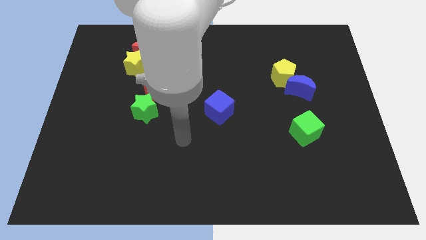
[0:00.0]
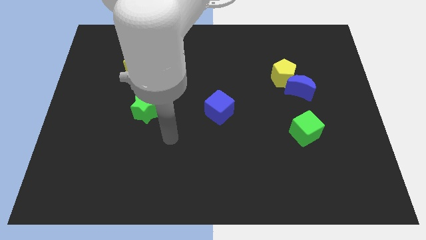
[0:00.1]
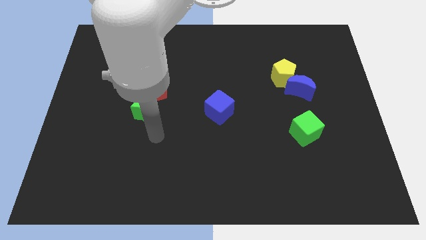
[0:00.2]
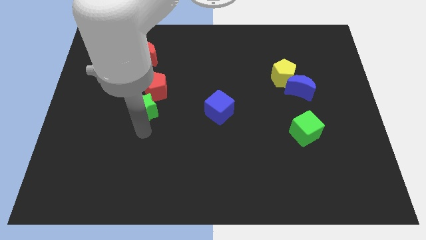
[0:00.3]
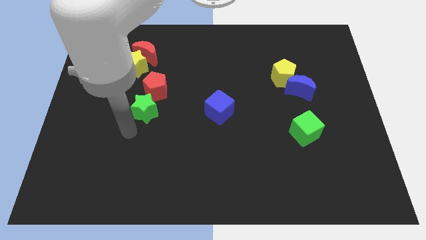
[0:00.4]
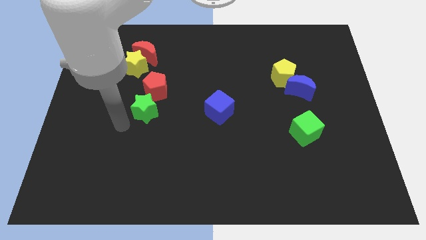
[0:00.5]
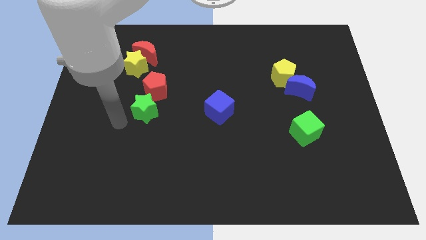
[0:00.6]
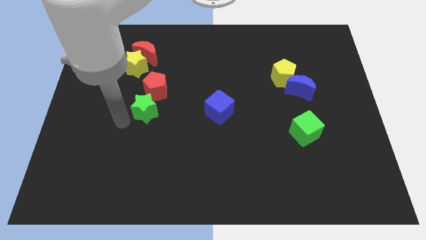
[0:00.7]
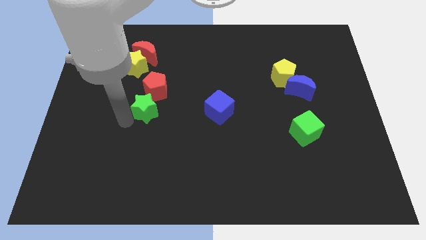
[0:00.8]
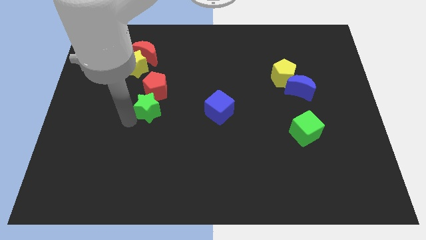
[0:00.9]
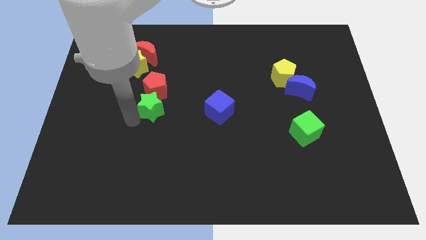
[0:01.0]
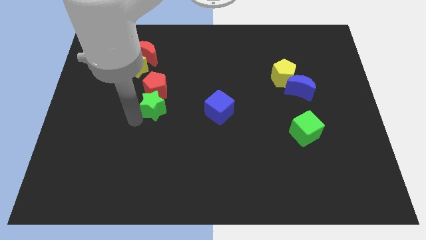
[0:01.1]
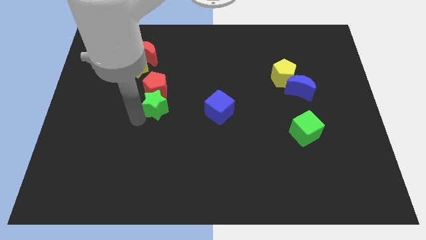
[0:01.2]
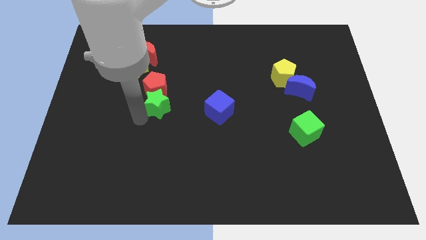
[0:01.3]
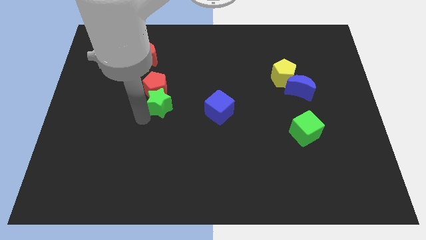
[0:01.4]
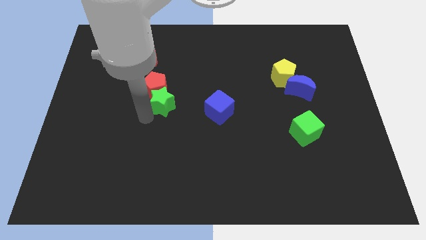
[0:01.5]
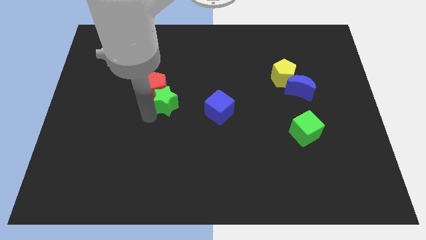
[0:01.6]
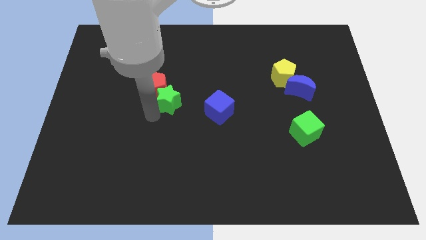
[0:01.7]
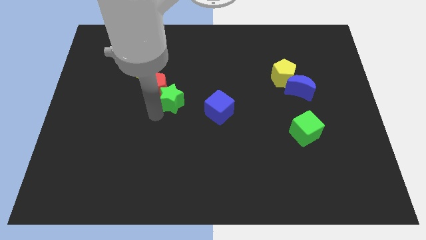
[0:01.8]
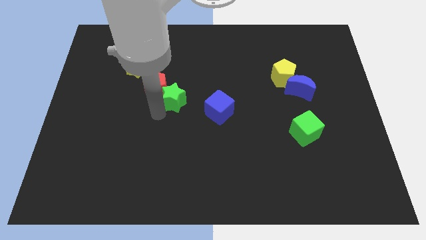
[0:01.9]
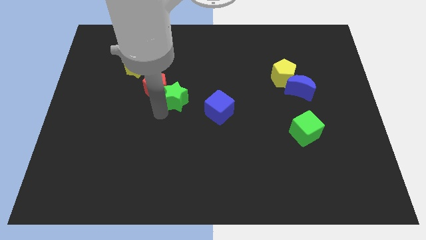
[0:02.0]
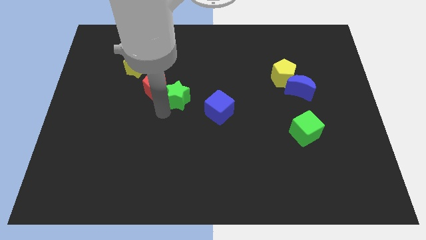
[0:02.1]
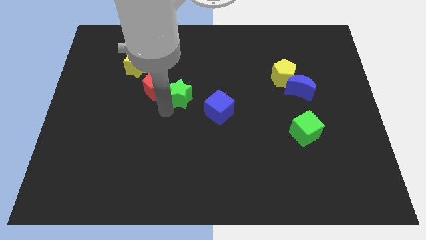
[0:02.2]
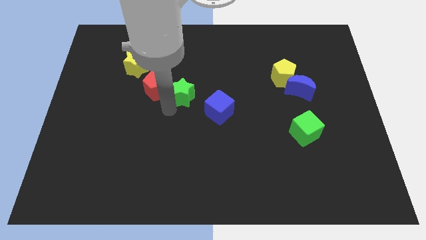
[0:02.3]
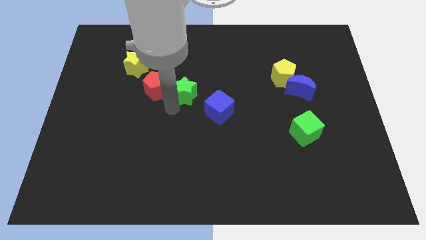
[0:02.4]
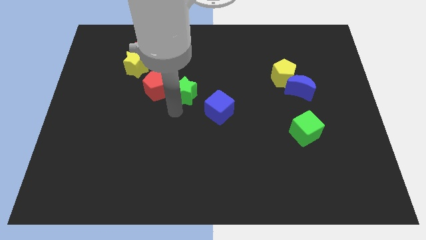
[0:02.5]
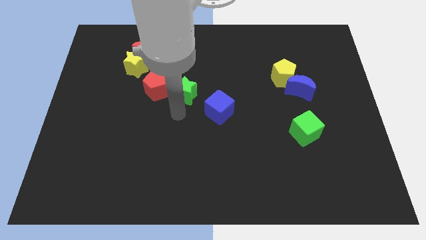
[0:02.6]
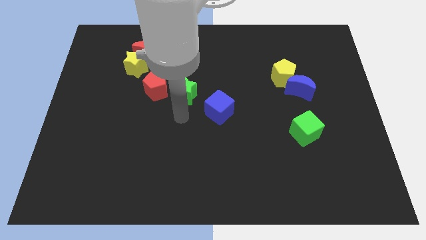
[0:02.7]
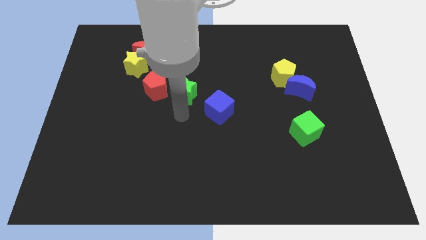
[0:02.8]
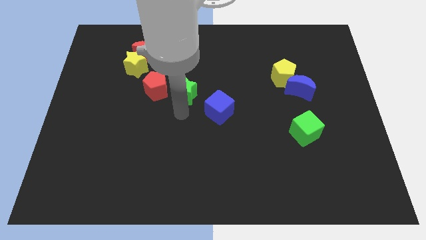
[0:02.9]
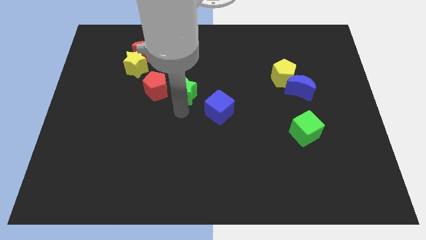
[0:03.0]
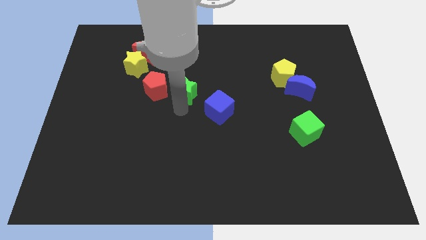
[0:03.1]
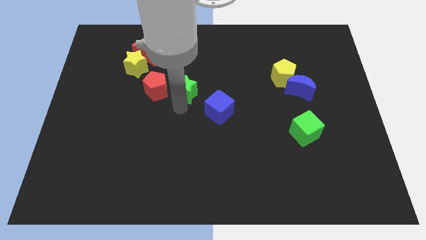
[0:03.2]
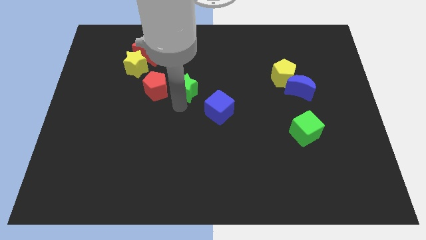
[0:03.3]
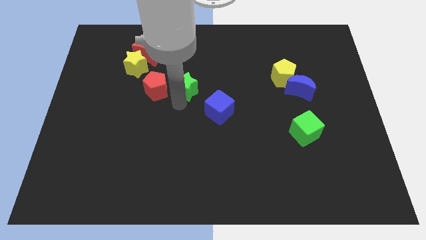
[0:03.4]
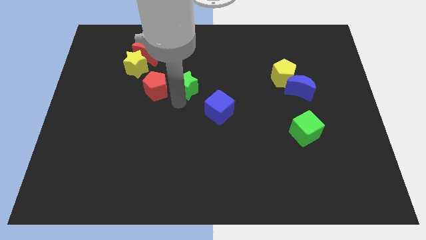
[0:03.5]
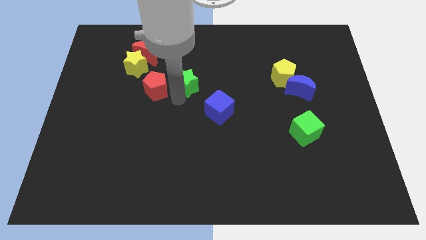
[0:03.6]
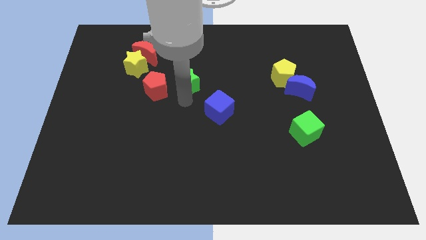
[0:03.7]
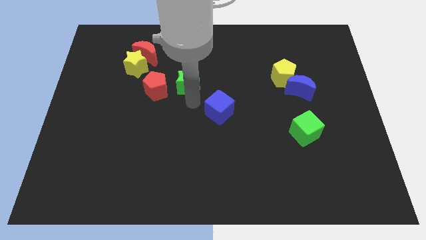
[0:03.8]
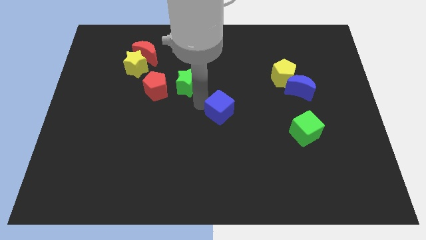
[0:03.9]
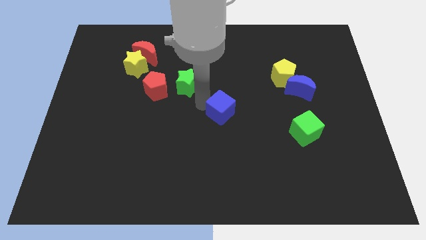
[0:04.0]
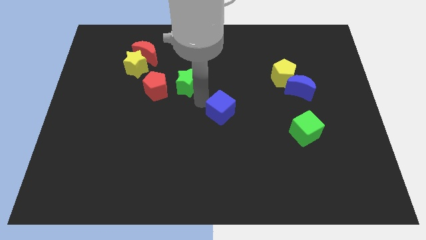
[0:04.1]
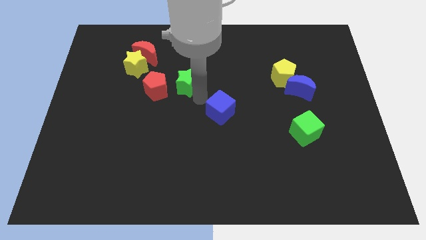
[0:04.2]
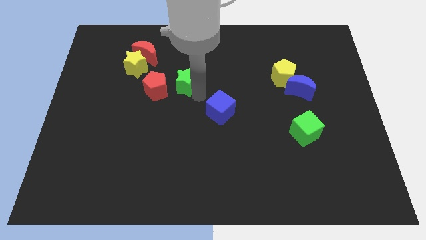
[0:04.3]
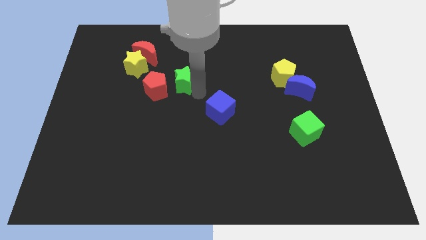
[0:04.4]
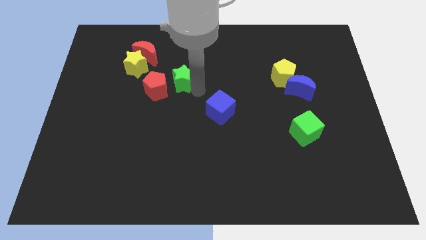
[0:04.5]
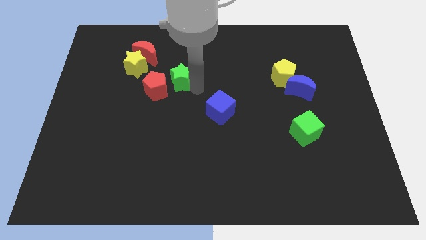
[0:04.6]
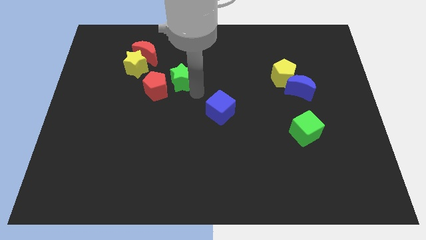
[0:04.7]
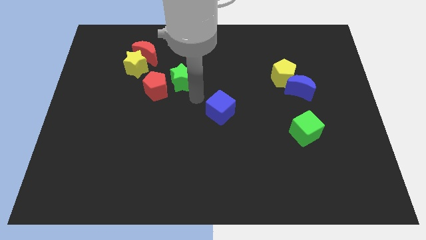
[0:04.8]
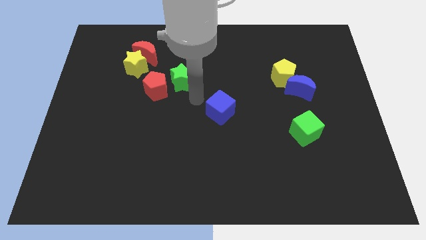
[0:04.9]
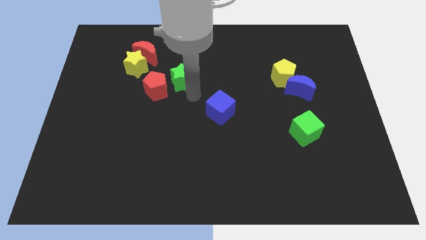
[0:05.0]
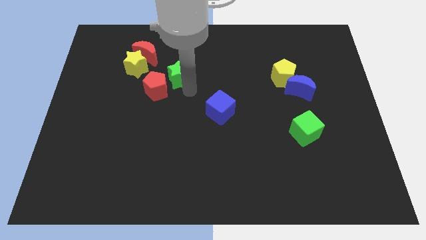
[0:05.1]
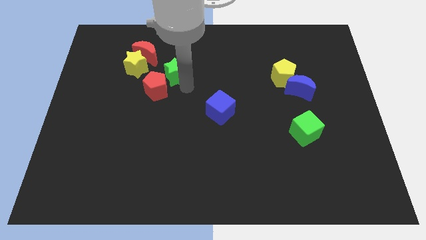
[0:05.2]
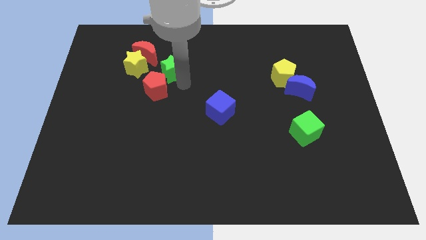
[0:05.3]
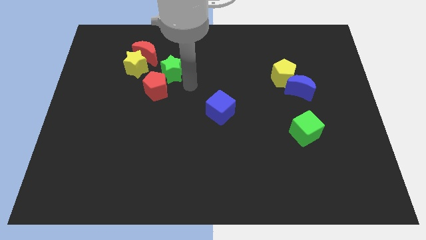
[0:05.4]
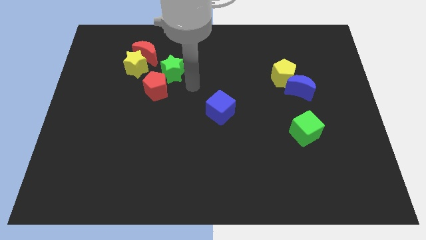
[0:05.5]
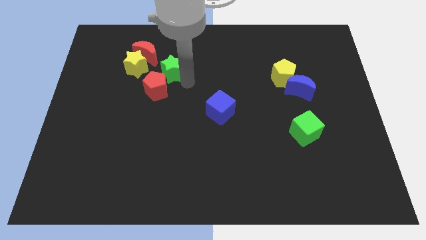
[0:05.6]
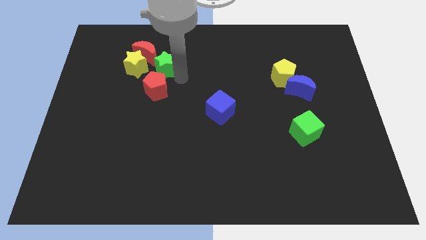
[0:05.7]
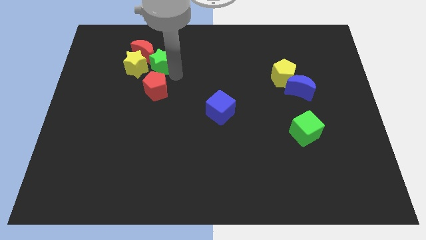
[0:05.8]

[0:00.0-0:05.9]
move the green star next to the red moon

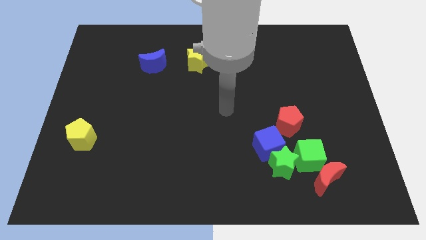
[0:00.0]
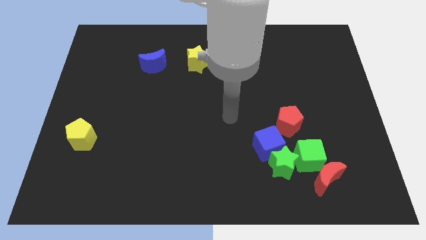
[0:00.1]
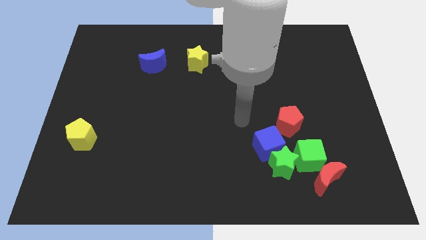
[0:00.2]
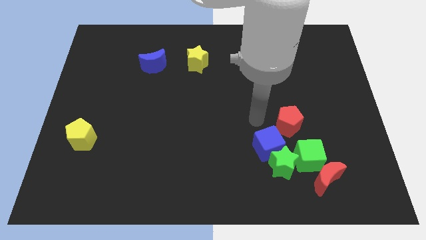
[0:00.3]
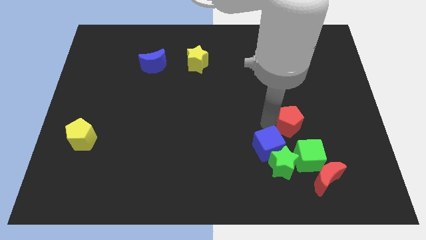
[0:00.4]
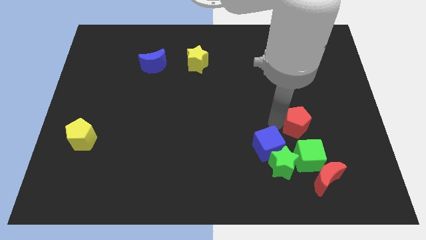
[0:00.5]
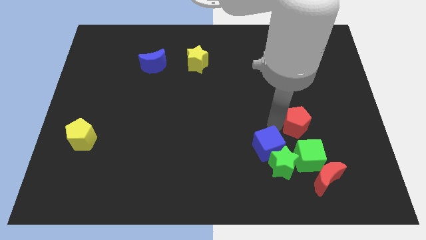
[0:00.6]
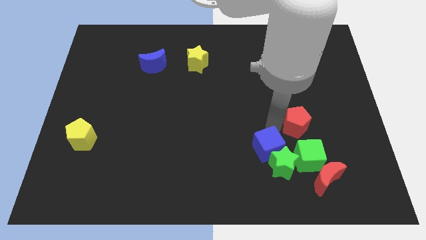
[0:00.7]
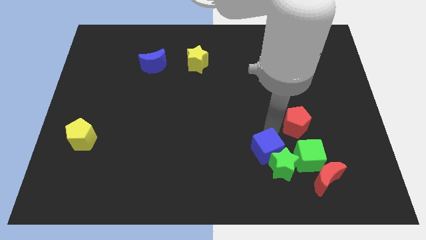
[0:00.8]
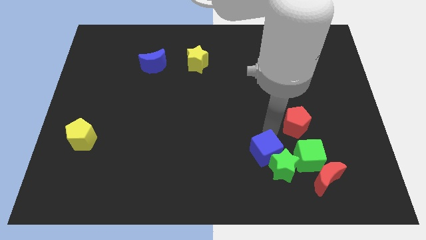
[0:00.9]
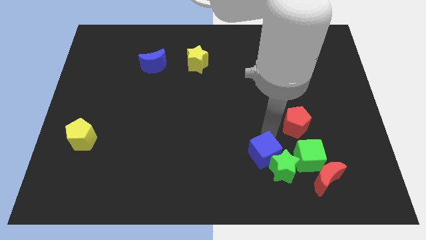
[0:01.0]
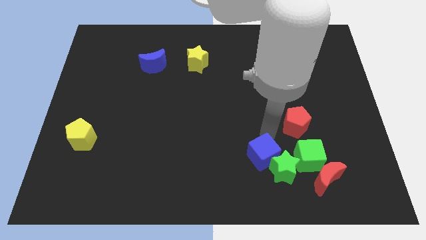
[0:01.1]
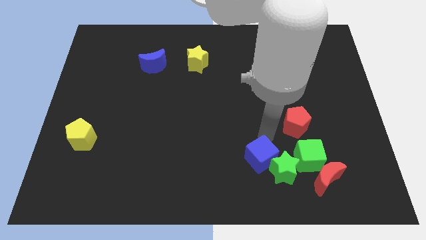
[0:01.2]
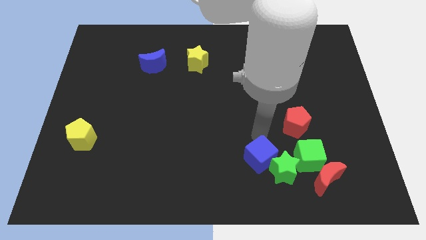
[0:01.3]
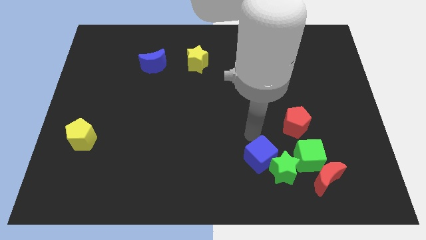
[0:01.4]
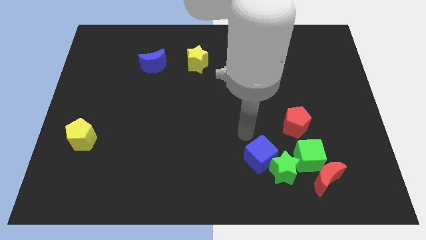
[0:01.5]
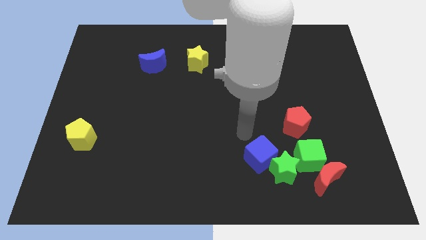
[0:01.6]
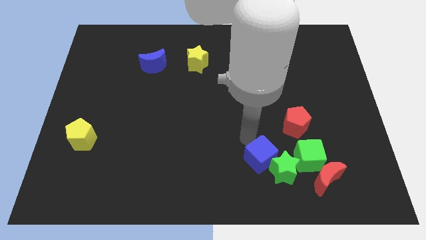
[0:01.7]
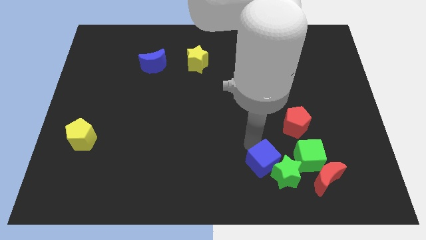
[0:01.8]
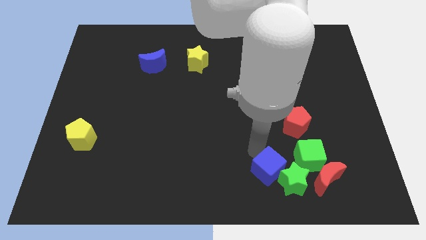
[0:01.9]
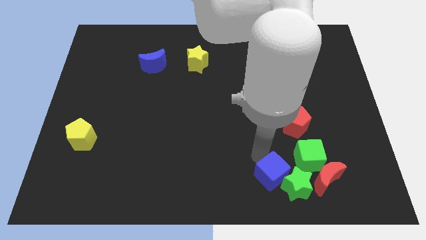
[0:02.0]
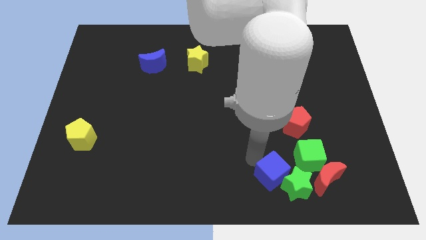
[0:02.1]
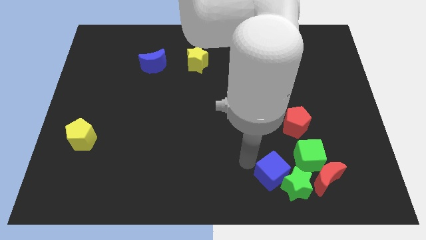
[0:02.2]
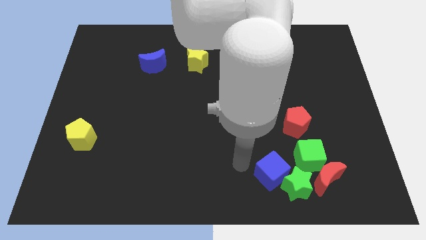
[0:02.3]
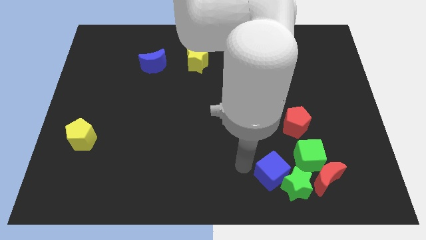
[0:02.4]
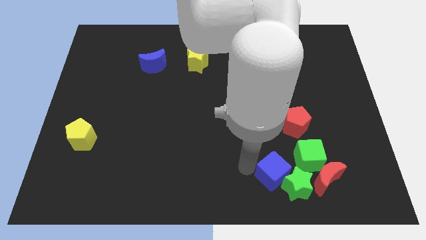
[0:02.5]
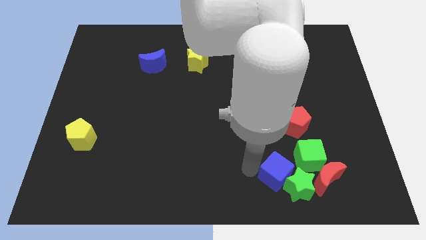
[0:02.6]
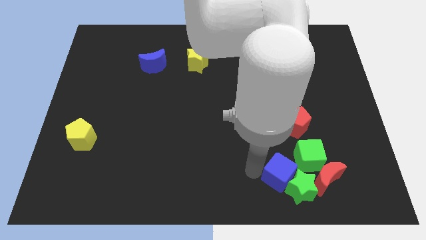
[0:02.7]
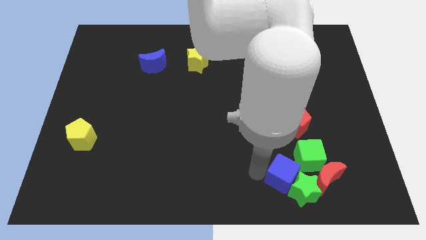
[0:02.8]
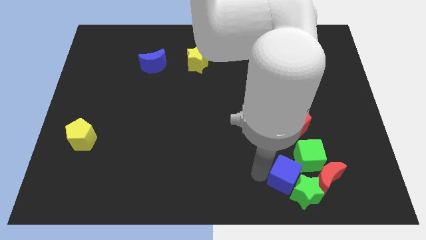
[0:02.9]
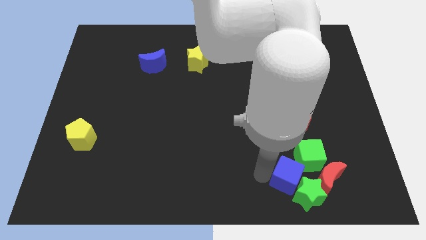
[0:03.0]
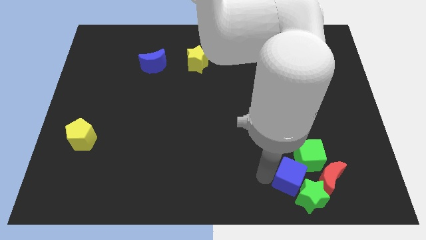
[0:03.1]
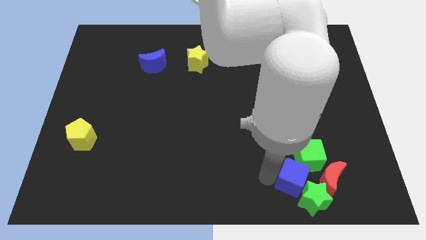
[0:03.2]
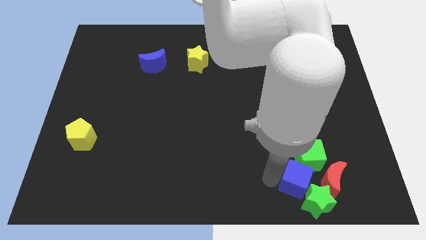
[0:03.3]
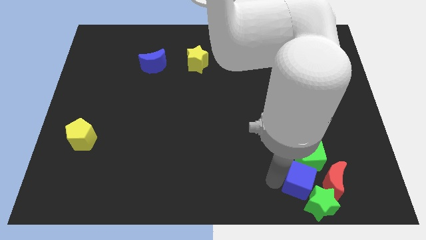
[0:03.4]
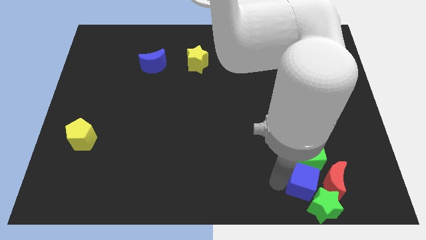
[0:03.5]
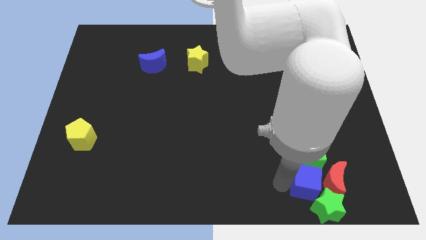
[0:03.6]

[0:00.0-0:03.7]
slide the blue cube towards the red moon
